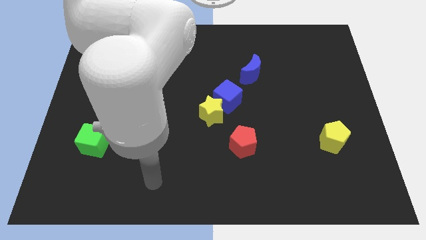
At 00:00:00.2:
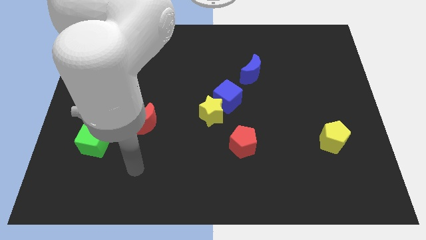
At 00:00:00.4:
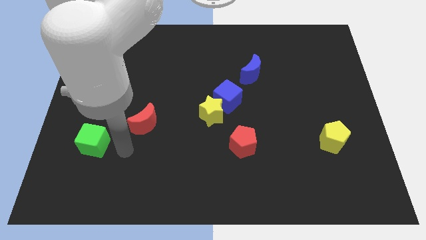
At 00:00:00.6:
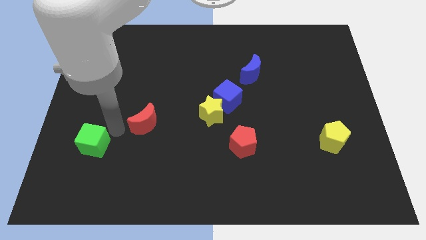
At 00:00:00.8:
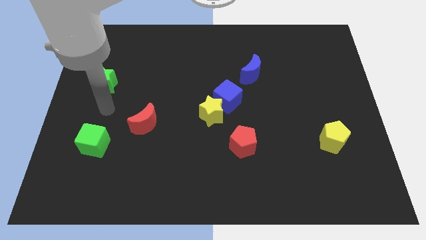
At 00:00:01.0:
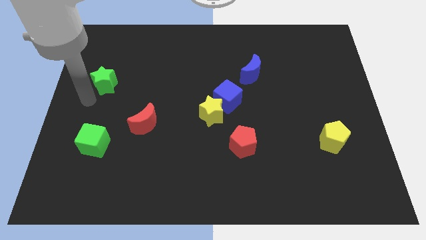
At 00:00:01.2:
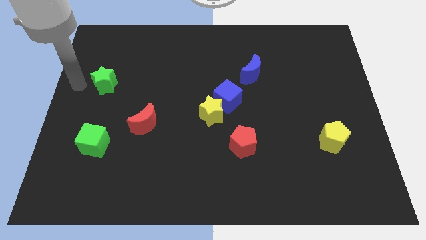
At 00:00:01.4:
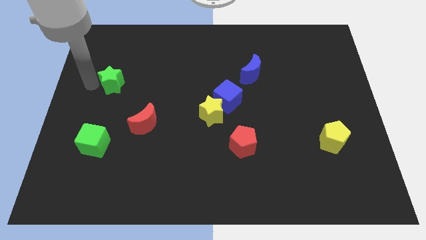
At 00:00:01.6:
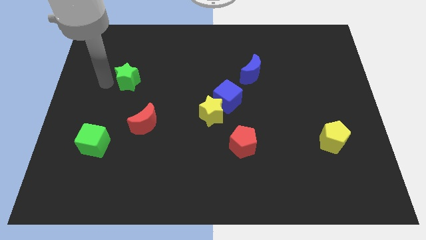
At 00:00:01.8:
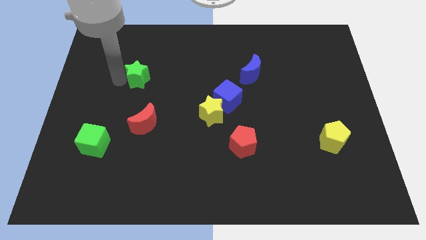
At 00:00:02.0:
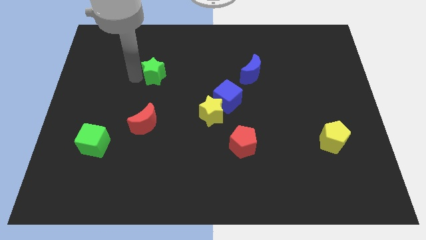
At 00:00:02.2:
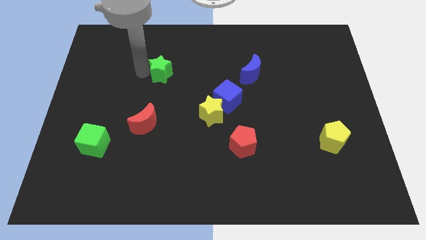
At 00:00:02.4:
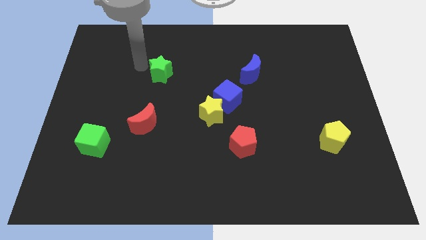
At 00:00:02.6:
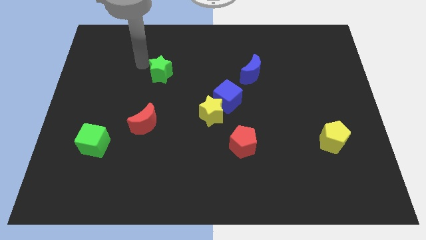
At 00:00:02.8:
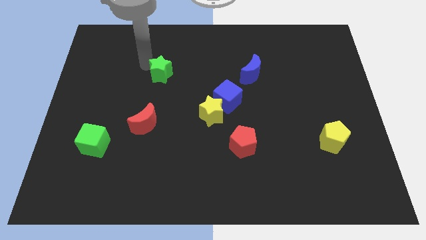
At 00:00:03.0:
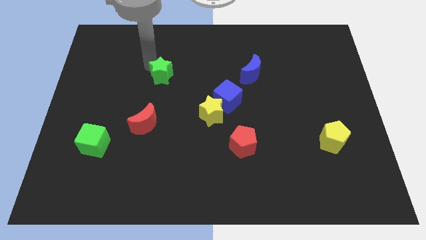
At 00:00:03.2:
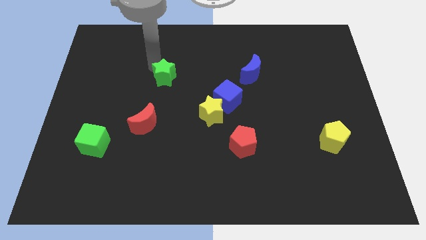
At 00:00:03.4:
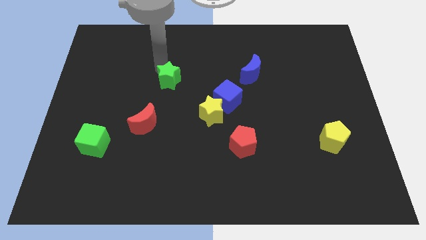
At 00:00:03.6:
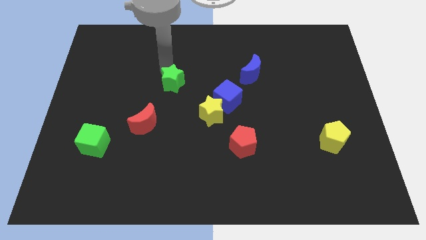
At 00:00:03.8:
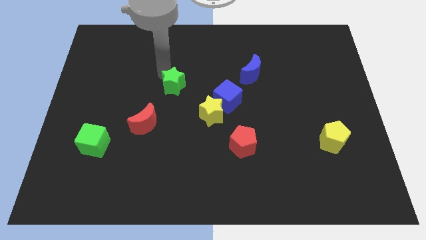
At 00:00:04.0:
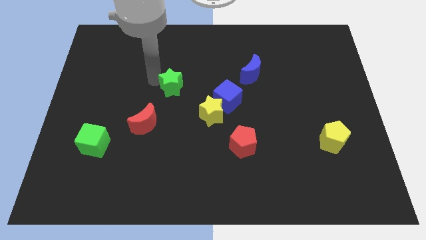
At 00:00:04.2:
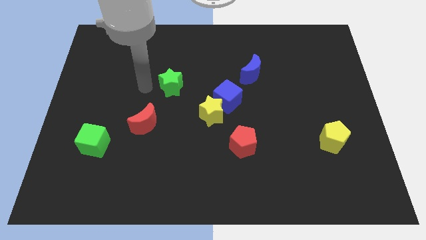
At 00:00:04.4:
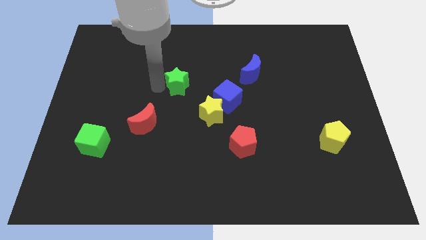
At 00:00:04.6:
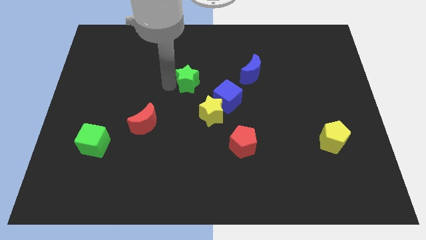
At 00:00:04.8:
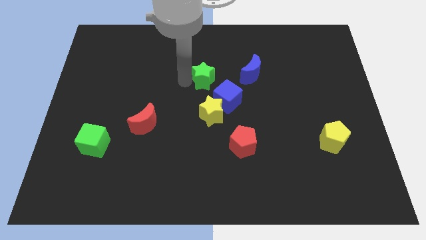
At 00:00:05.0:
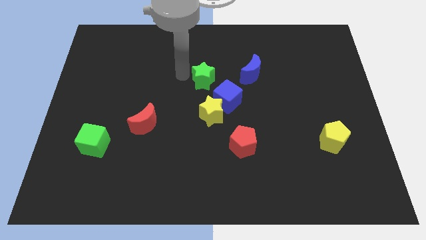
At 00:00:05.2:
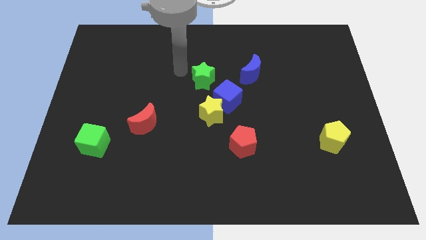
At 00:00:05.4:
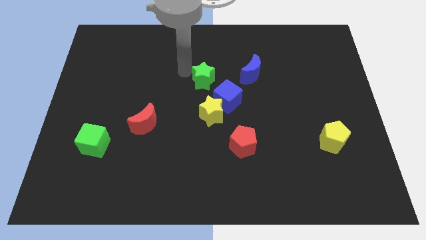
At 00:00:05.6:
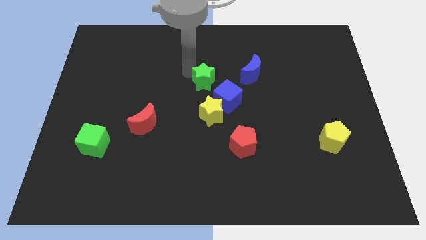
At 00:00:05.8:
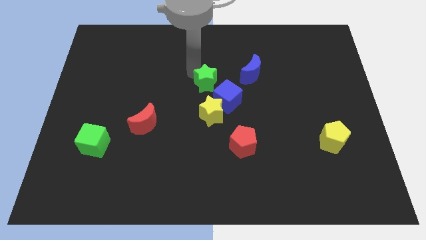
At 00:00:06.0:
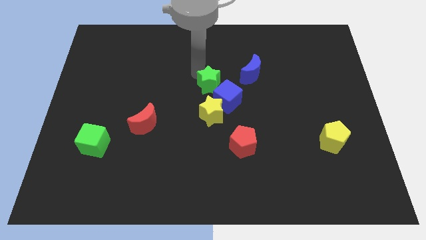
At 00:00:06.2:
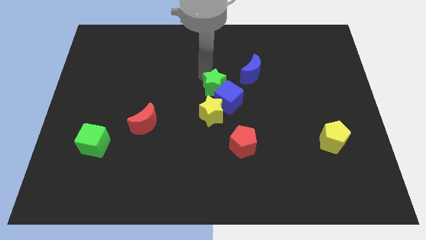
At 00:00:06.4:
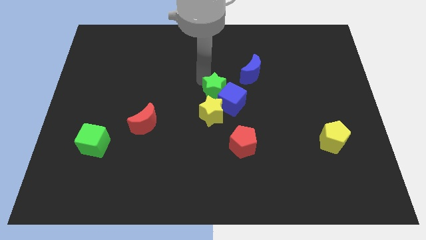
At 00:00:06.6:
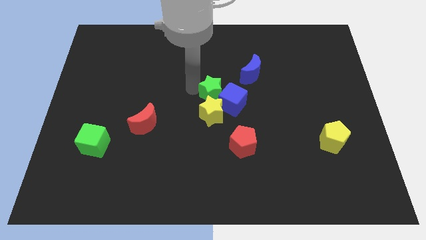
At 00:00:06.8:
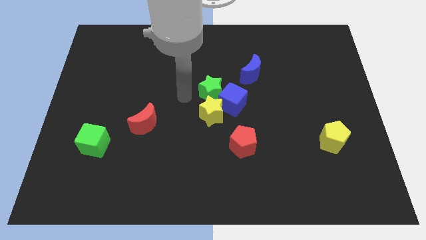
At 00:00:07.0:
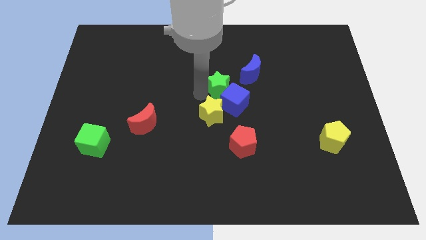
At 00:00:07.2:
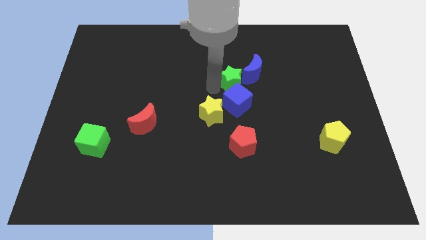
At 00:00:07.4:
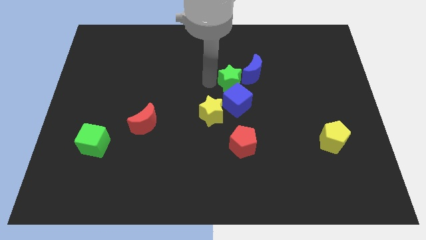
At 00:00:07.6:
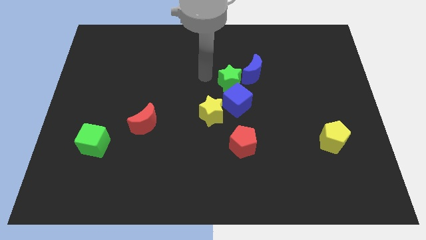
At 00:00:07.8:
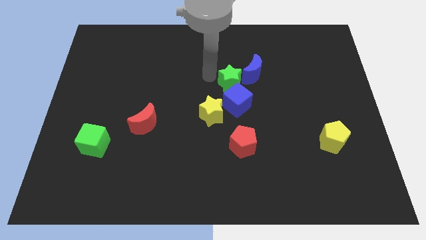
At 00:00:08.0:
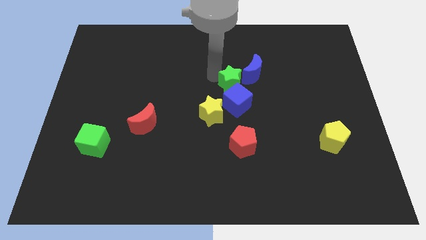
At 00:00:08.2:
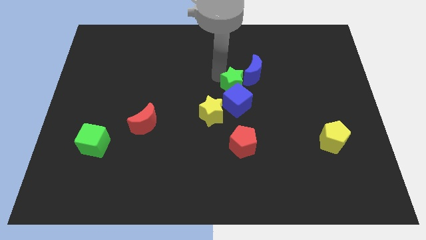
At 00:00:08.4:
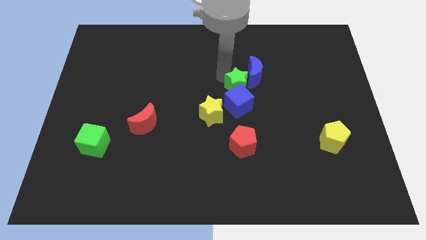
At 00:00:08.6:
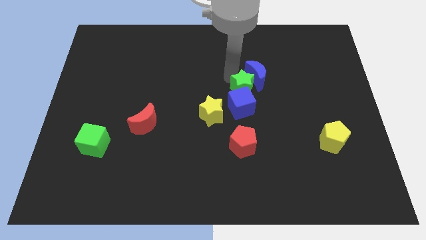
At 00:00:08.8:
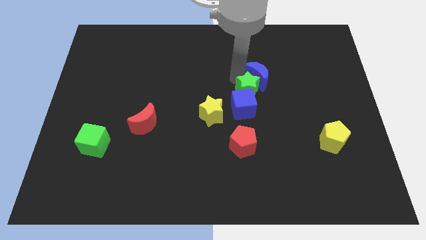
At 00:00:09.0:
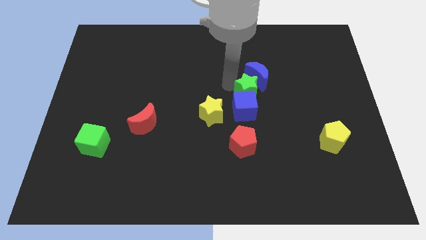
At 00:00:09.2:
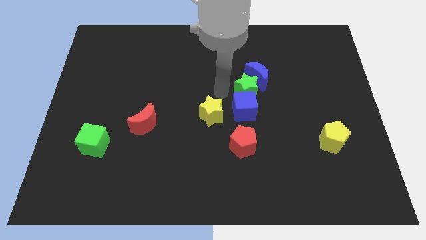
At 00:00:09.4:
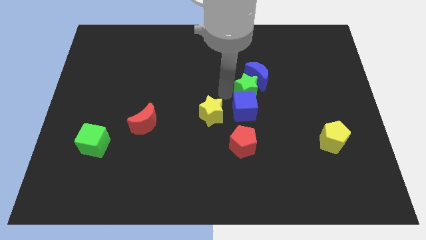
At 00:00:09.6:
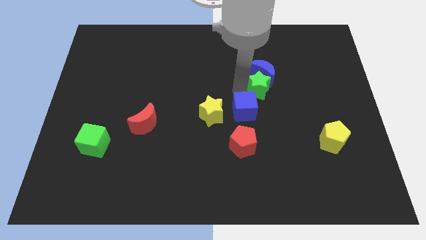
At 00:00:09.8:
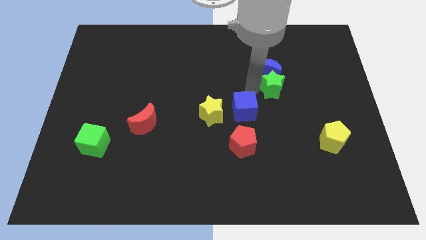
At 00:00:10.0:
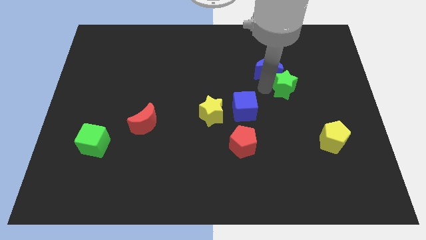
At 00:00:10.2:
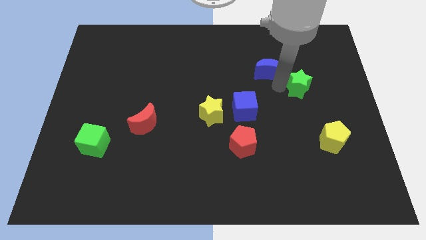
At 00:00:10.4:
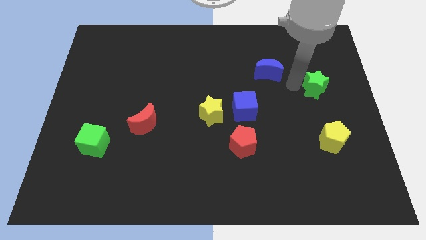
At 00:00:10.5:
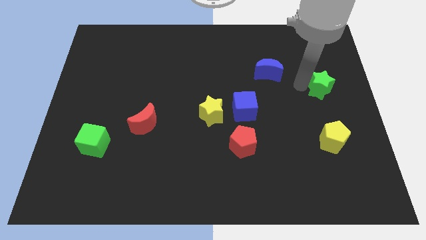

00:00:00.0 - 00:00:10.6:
move the green star to the right side of the board

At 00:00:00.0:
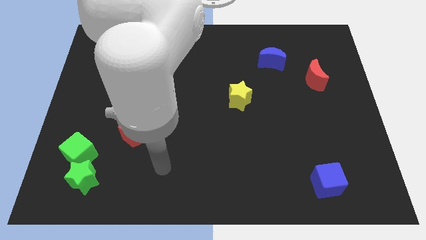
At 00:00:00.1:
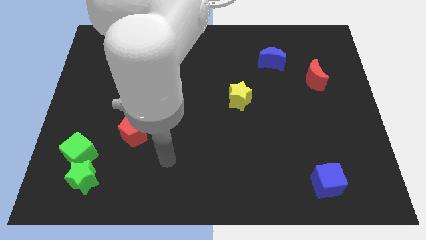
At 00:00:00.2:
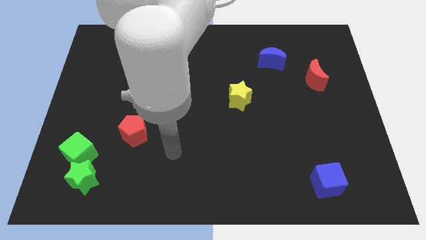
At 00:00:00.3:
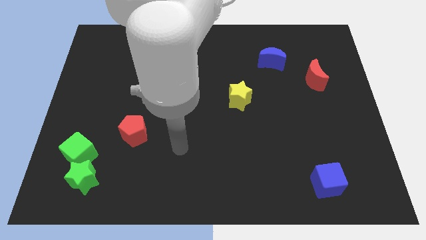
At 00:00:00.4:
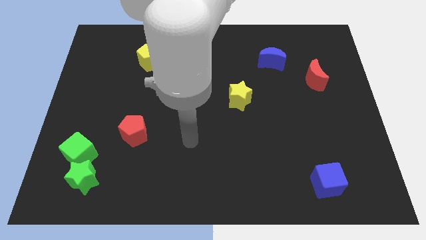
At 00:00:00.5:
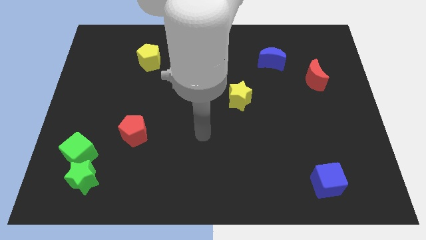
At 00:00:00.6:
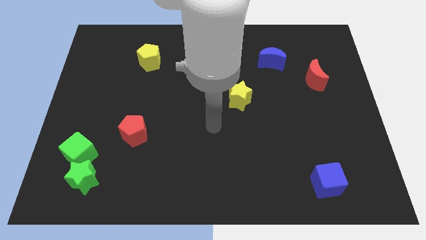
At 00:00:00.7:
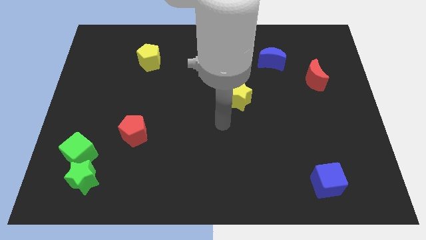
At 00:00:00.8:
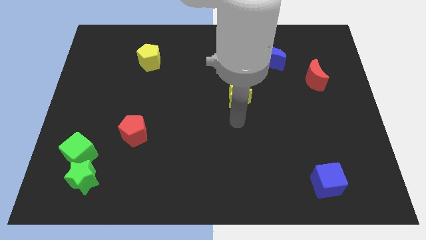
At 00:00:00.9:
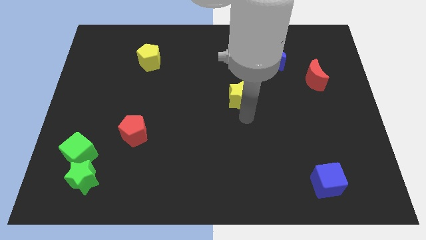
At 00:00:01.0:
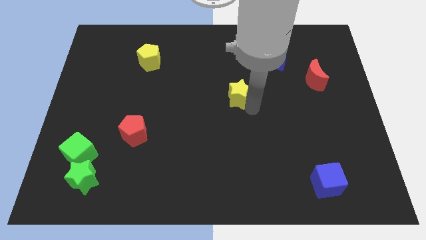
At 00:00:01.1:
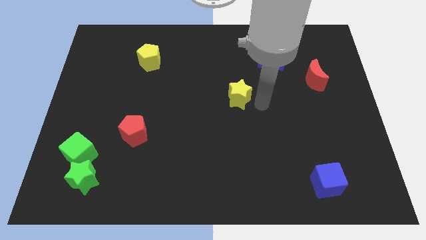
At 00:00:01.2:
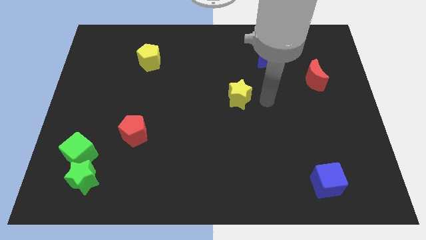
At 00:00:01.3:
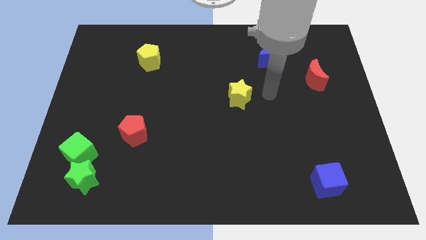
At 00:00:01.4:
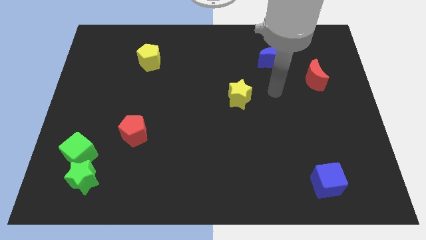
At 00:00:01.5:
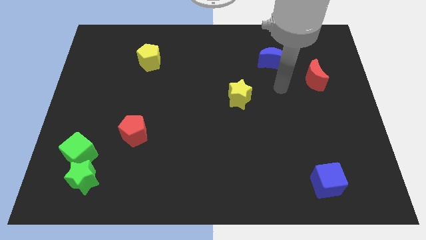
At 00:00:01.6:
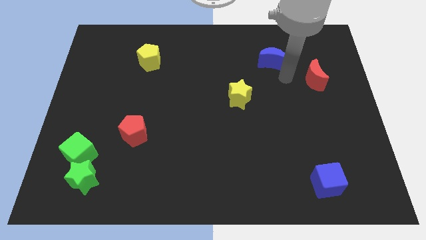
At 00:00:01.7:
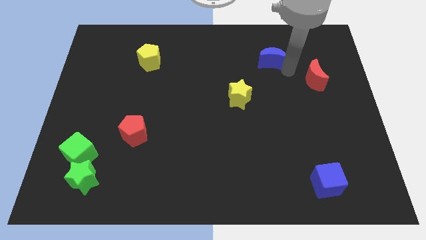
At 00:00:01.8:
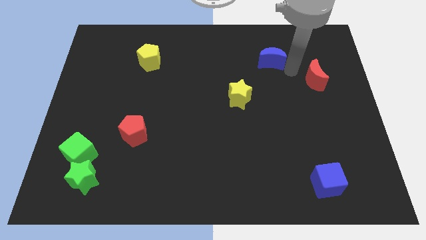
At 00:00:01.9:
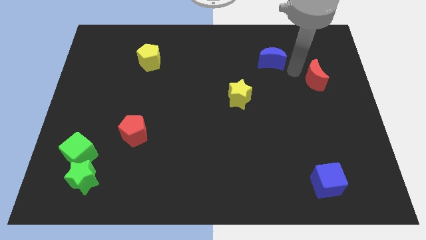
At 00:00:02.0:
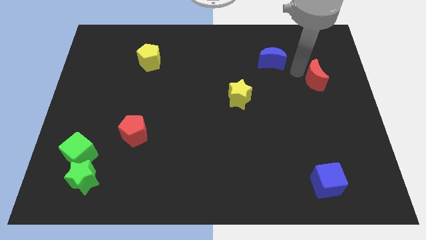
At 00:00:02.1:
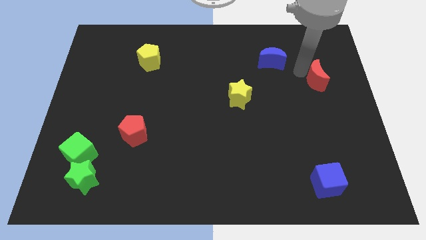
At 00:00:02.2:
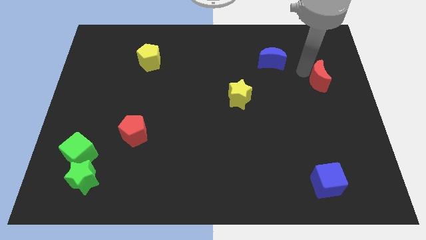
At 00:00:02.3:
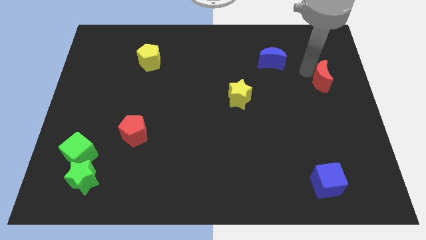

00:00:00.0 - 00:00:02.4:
move the red moon to the center right
